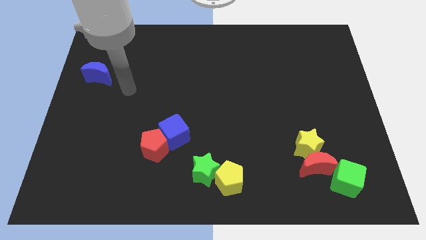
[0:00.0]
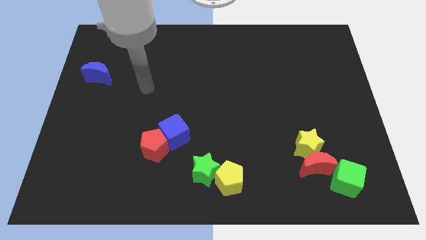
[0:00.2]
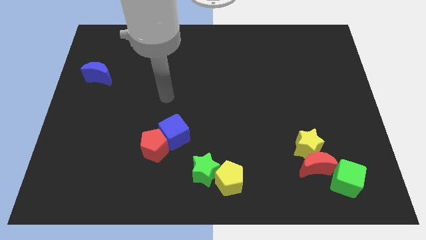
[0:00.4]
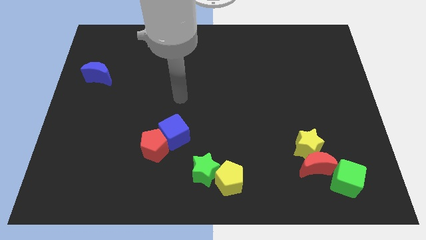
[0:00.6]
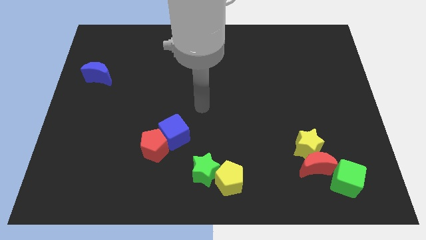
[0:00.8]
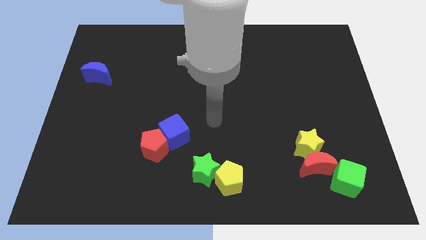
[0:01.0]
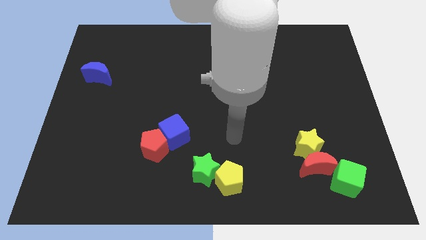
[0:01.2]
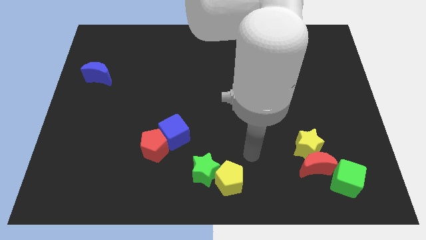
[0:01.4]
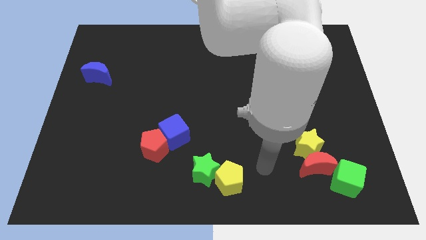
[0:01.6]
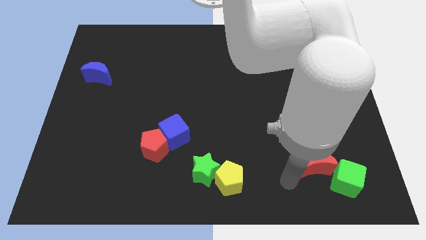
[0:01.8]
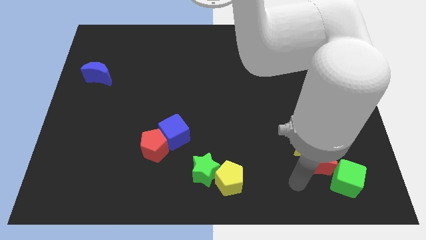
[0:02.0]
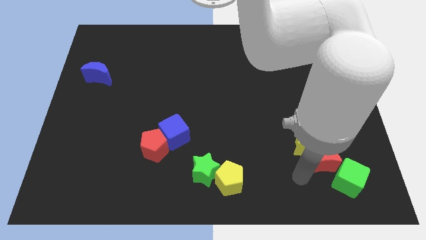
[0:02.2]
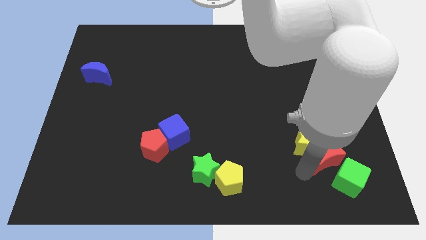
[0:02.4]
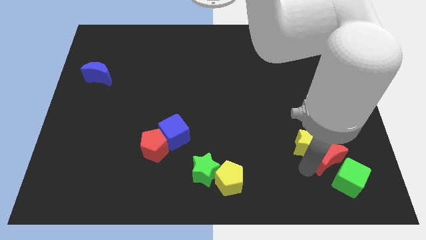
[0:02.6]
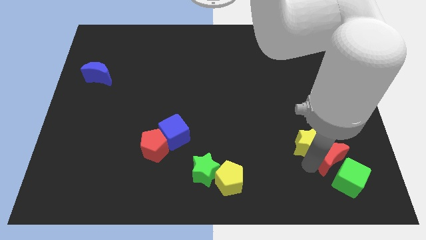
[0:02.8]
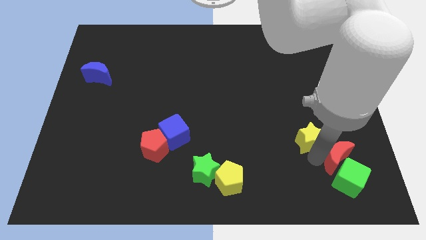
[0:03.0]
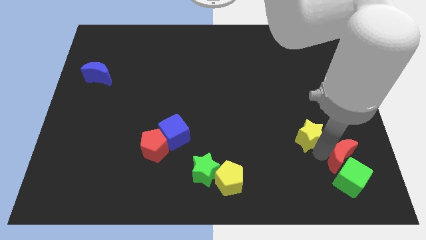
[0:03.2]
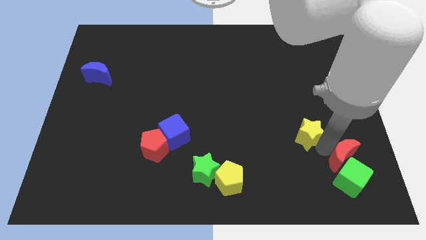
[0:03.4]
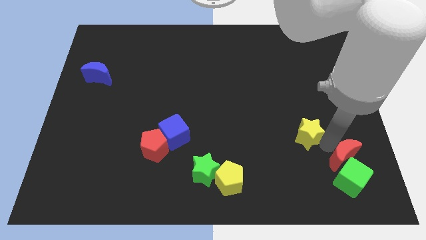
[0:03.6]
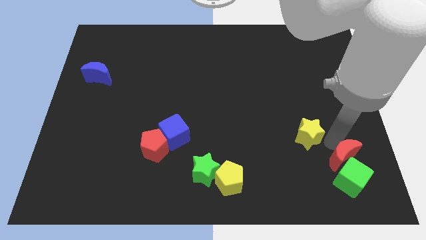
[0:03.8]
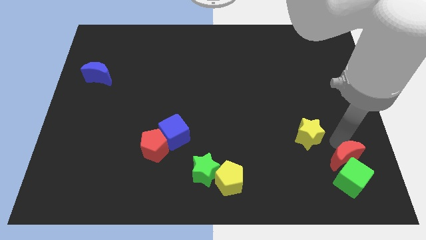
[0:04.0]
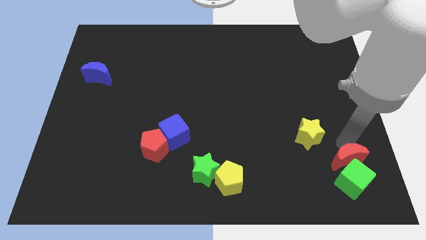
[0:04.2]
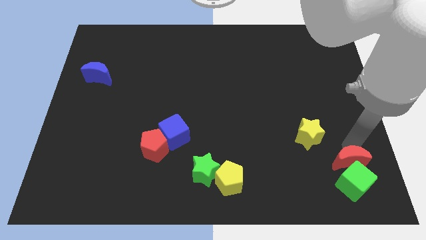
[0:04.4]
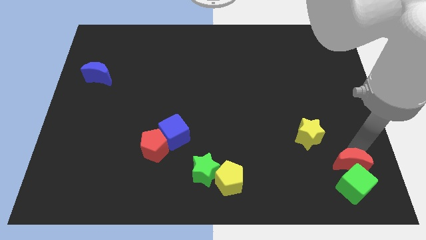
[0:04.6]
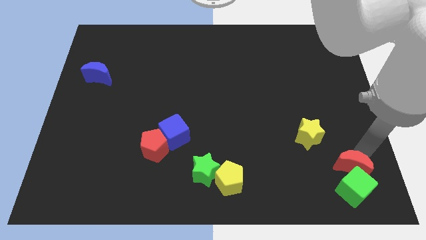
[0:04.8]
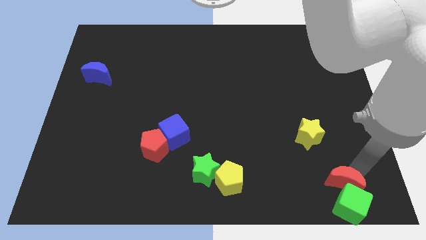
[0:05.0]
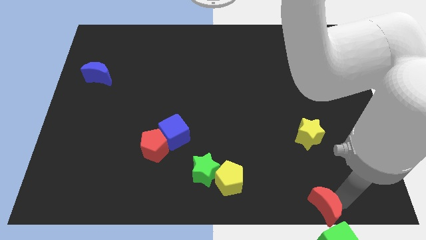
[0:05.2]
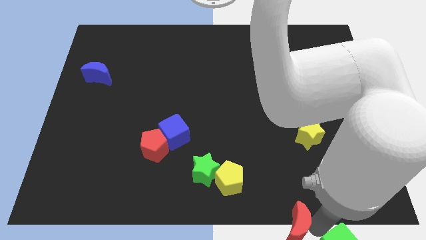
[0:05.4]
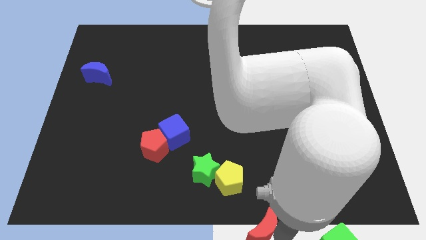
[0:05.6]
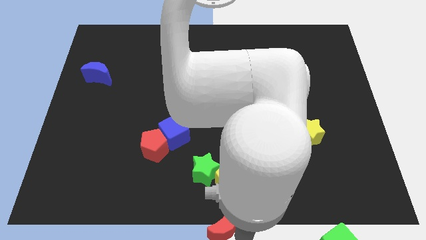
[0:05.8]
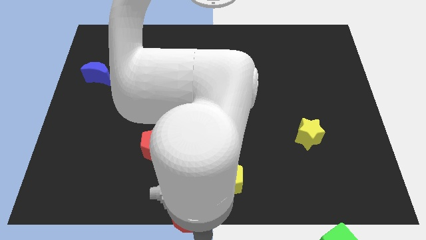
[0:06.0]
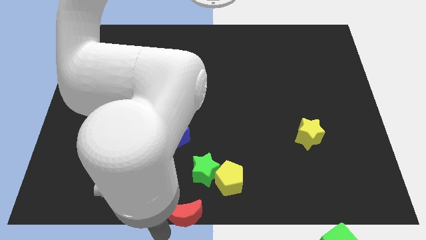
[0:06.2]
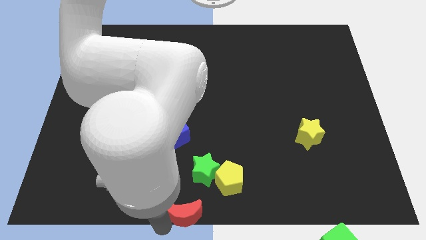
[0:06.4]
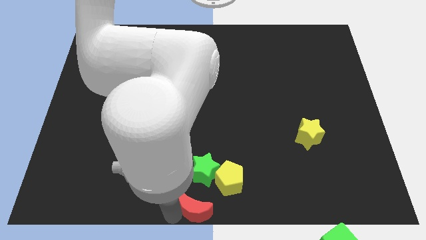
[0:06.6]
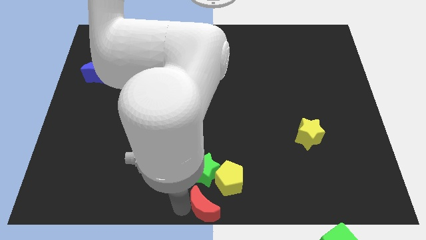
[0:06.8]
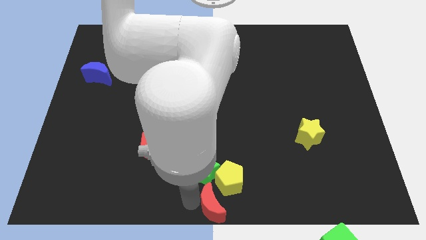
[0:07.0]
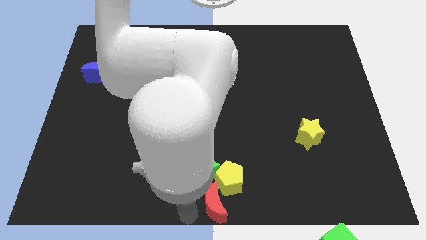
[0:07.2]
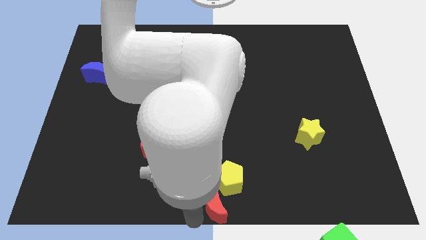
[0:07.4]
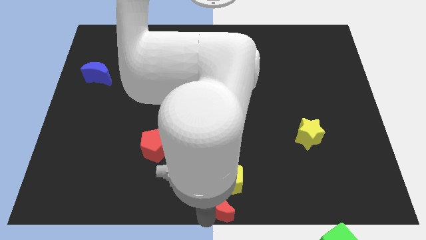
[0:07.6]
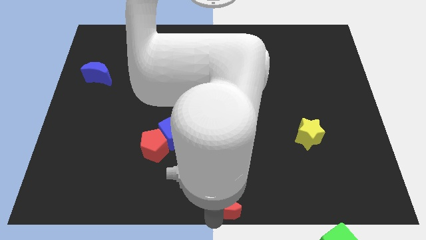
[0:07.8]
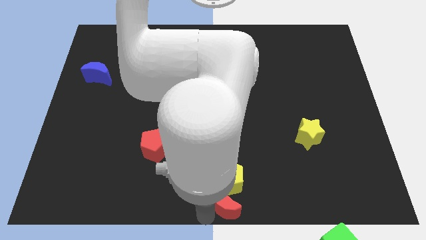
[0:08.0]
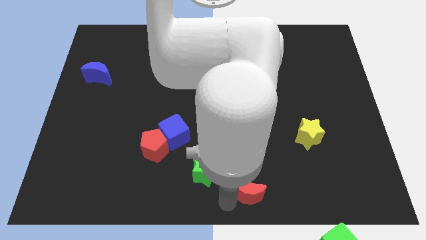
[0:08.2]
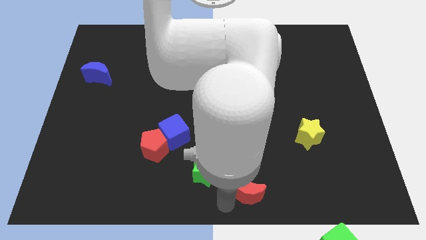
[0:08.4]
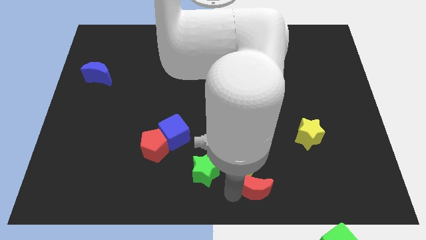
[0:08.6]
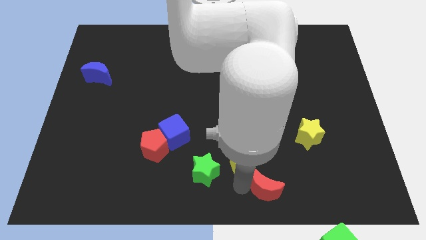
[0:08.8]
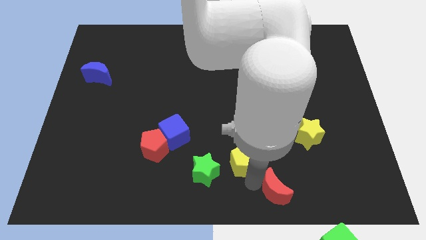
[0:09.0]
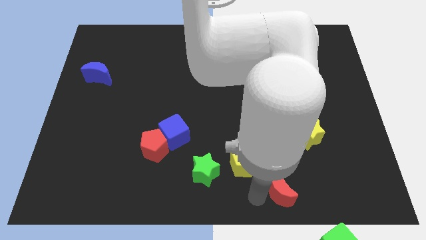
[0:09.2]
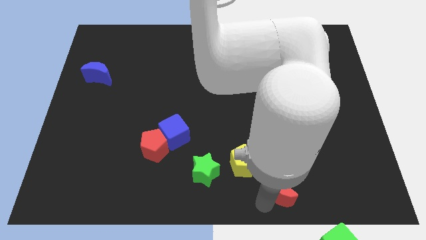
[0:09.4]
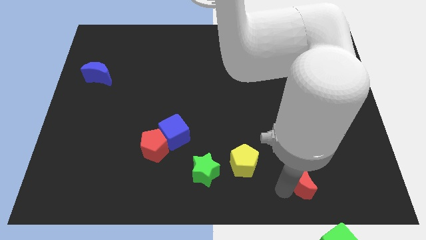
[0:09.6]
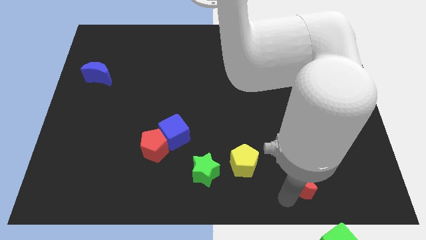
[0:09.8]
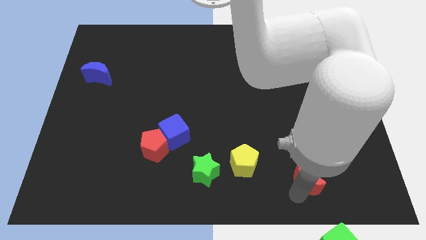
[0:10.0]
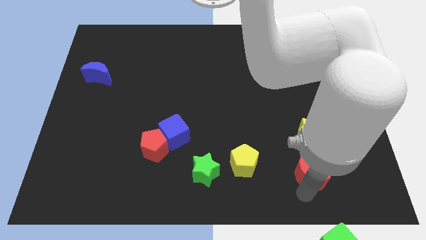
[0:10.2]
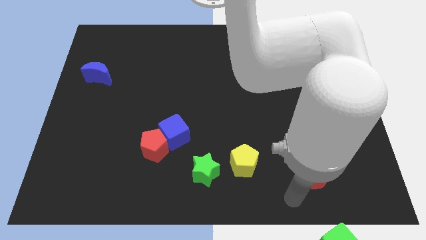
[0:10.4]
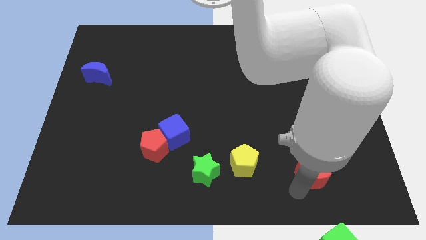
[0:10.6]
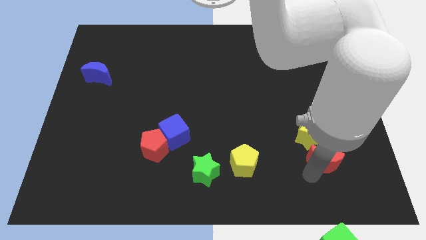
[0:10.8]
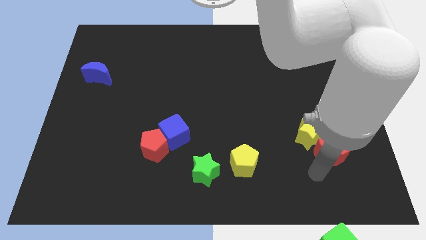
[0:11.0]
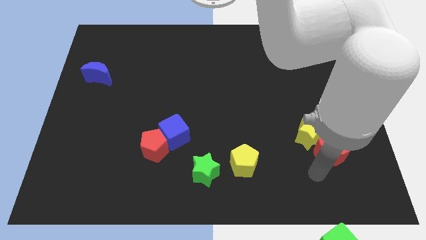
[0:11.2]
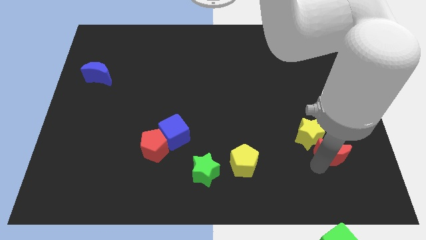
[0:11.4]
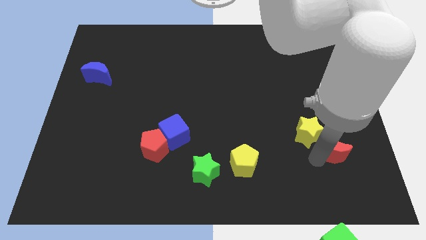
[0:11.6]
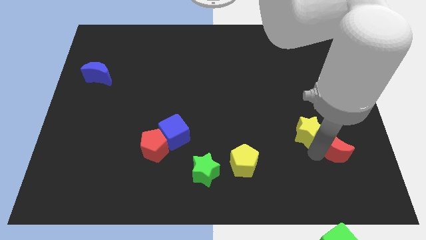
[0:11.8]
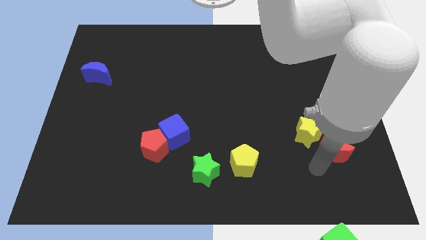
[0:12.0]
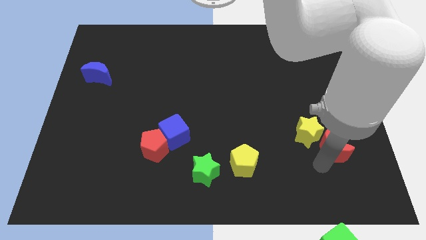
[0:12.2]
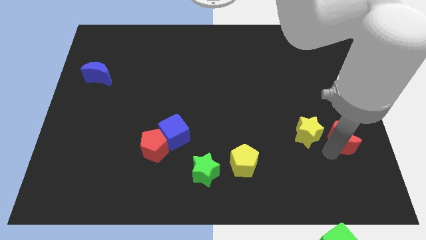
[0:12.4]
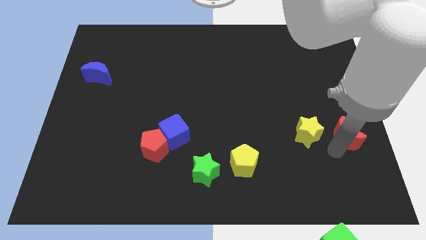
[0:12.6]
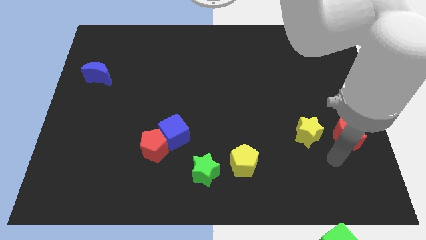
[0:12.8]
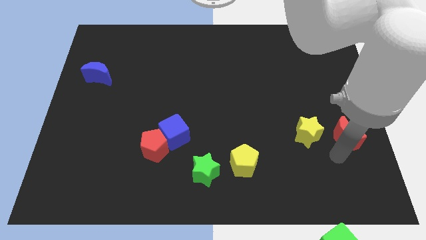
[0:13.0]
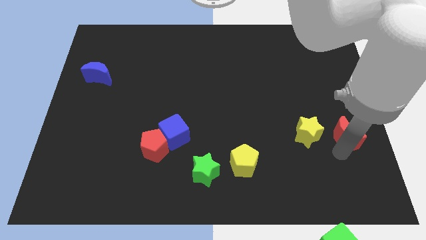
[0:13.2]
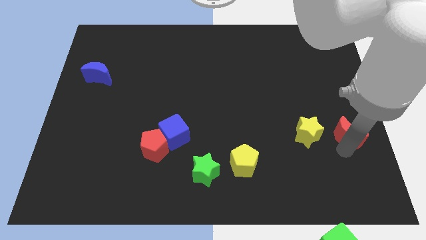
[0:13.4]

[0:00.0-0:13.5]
push the red moon to the center right

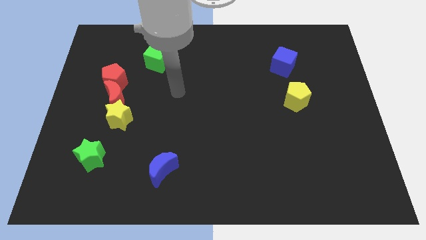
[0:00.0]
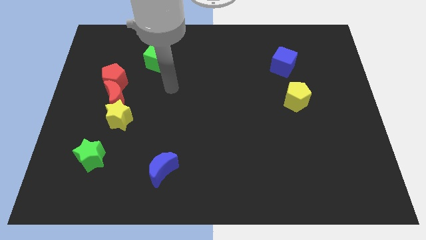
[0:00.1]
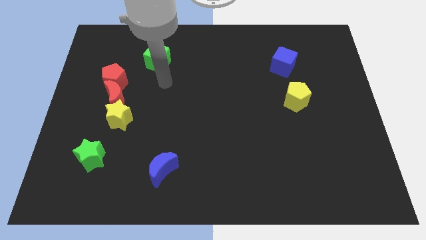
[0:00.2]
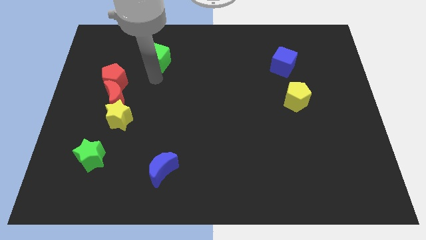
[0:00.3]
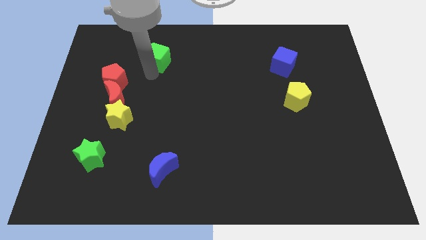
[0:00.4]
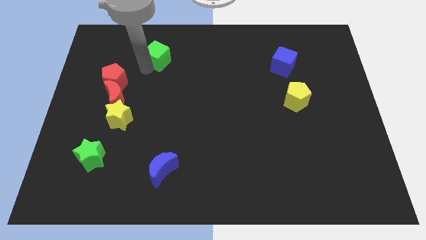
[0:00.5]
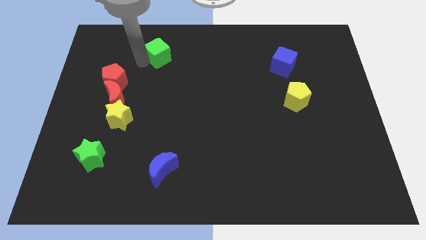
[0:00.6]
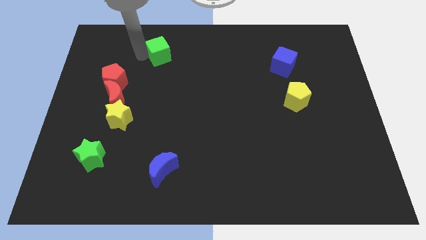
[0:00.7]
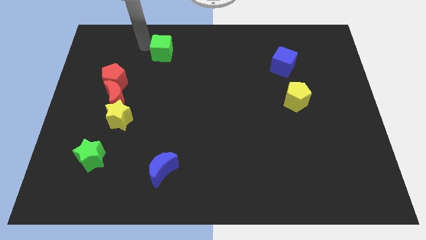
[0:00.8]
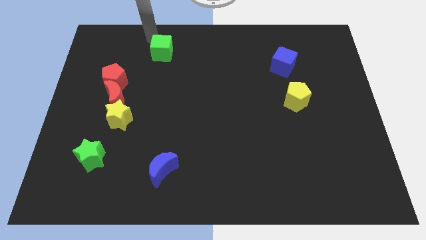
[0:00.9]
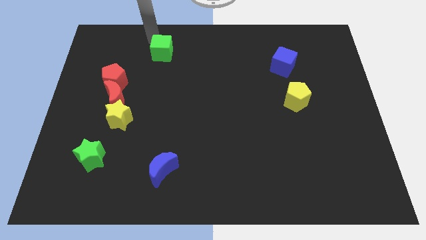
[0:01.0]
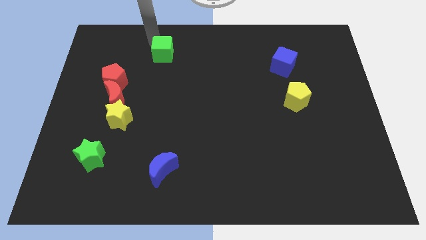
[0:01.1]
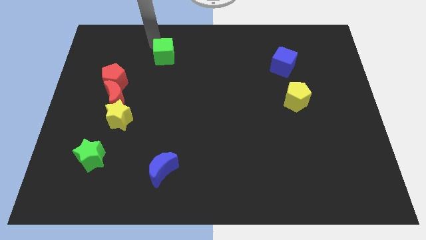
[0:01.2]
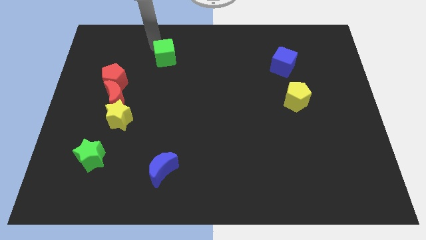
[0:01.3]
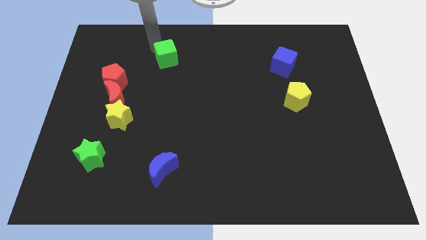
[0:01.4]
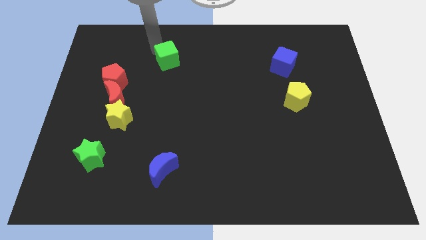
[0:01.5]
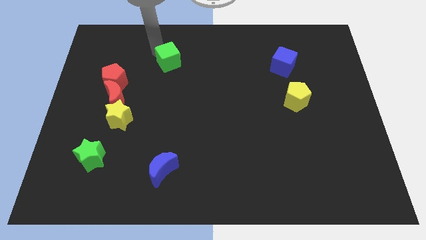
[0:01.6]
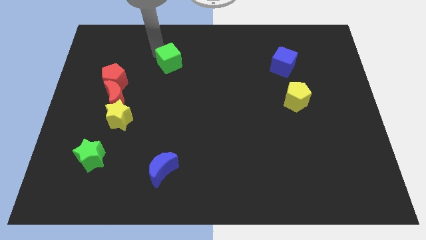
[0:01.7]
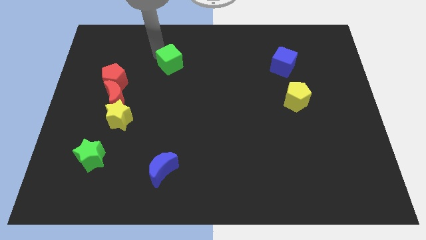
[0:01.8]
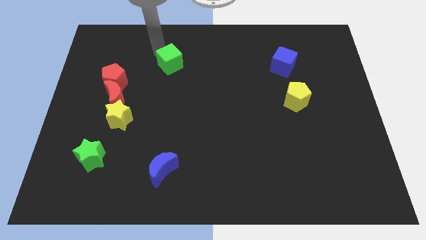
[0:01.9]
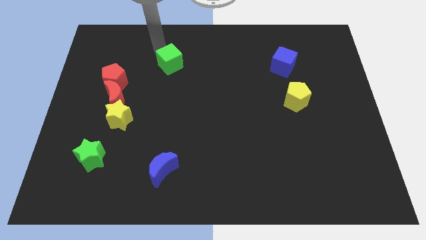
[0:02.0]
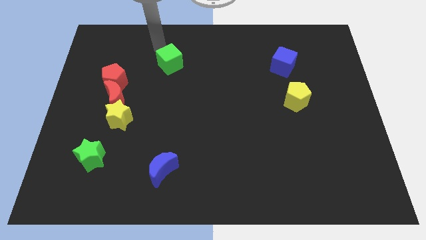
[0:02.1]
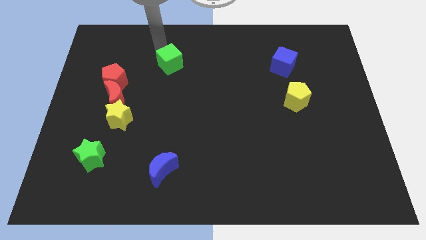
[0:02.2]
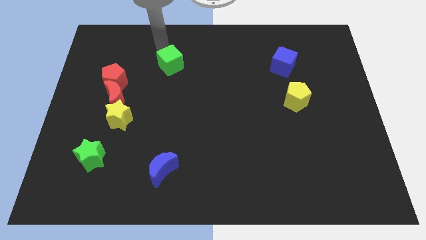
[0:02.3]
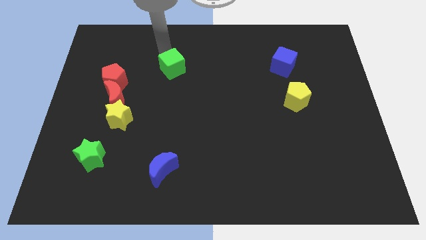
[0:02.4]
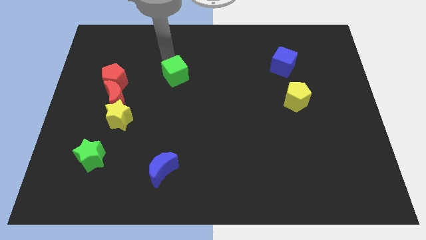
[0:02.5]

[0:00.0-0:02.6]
push the green cube to the middle
